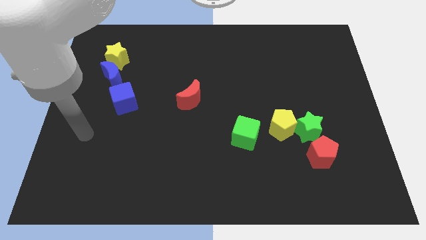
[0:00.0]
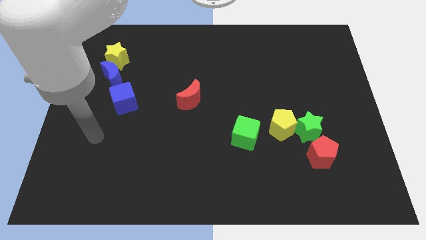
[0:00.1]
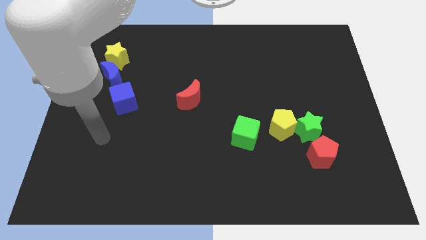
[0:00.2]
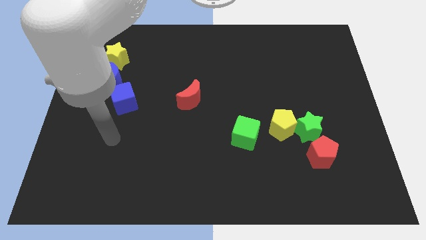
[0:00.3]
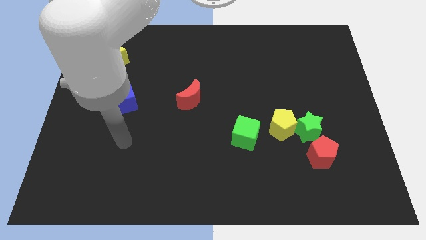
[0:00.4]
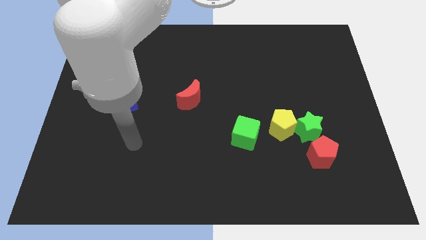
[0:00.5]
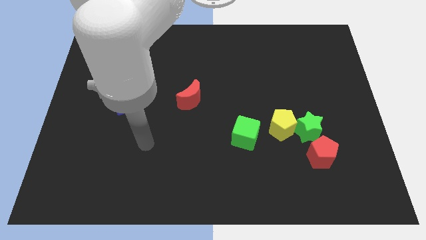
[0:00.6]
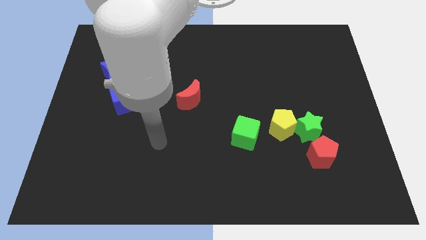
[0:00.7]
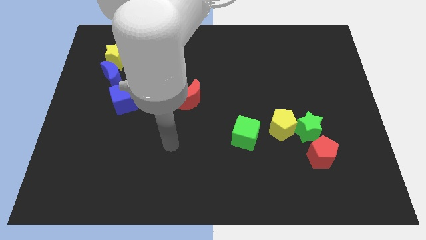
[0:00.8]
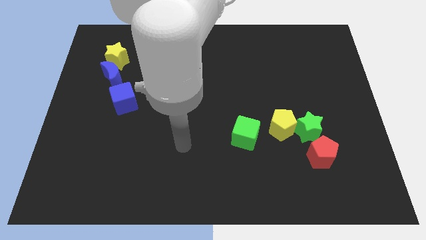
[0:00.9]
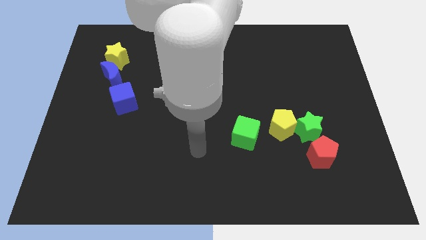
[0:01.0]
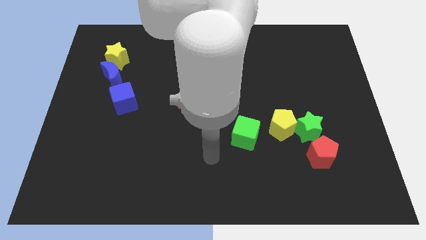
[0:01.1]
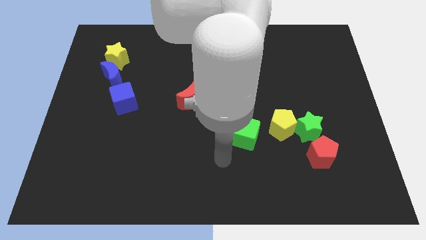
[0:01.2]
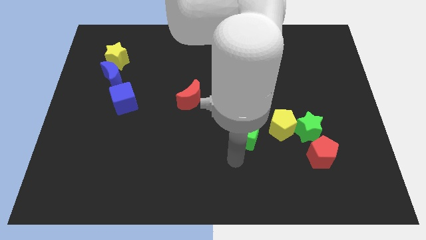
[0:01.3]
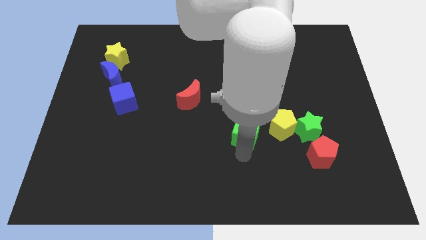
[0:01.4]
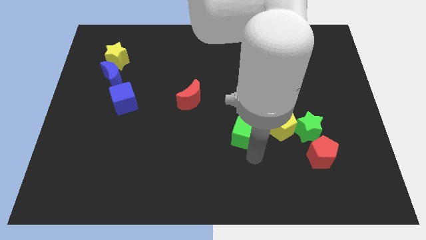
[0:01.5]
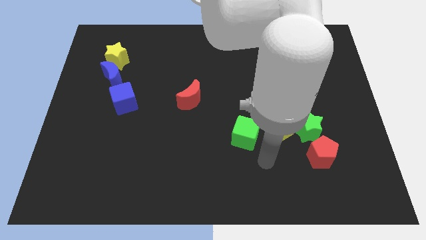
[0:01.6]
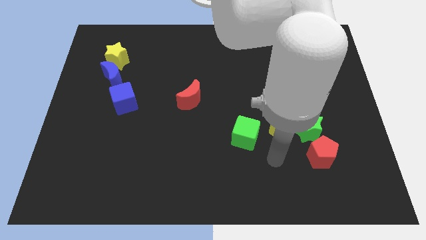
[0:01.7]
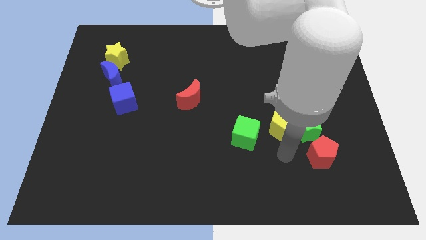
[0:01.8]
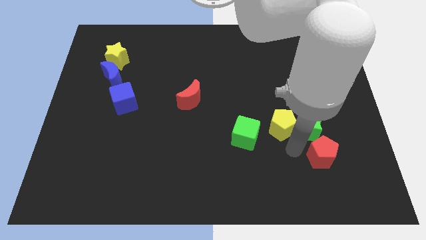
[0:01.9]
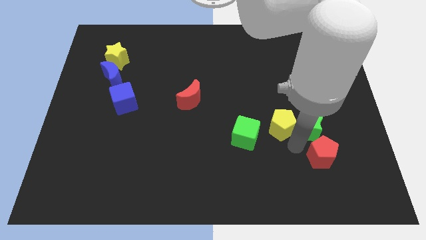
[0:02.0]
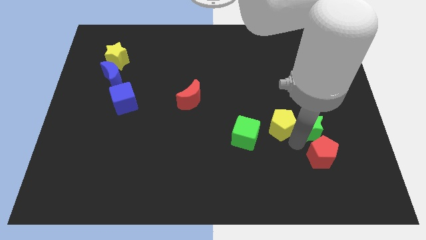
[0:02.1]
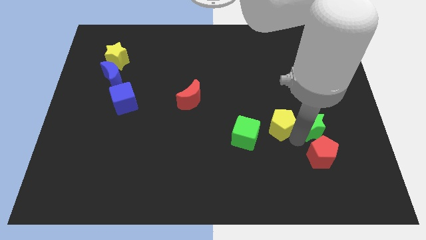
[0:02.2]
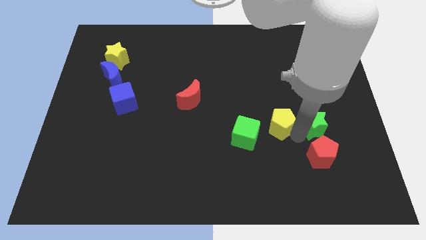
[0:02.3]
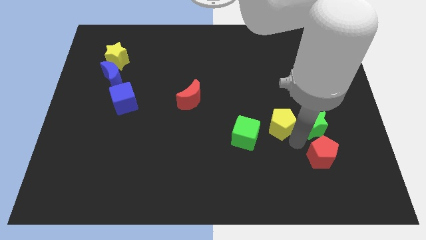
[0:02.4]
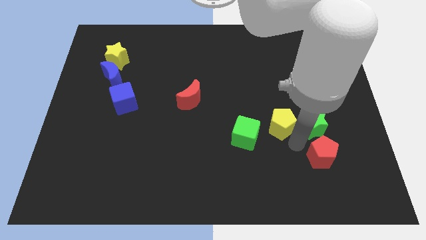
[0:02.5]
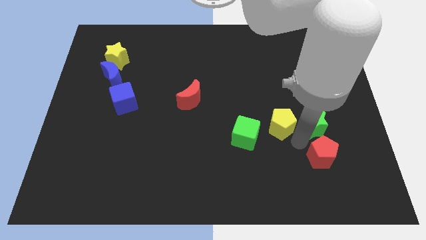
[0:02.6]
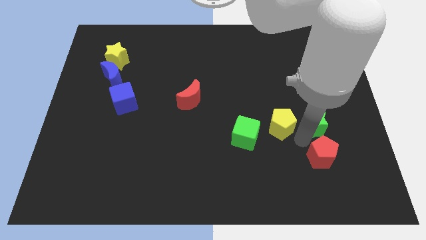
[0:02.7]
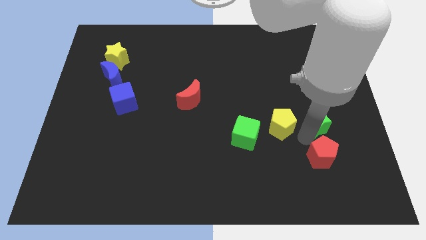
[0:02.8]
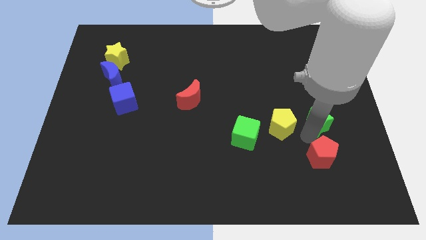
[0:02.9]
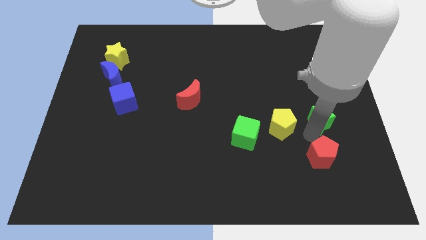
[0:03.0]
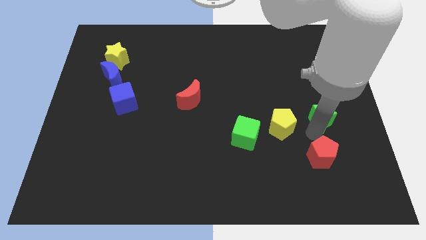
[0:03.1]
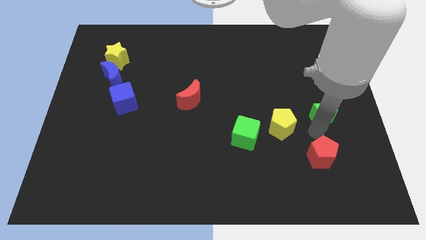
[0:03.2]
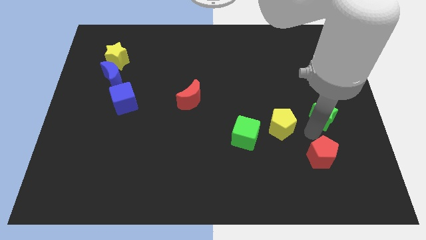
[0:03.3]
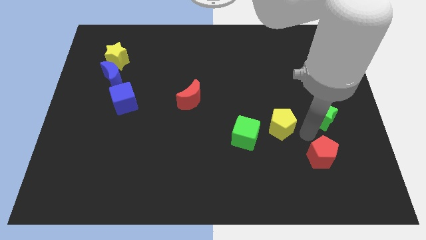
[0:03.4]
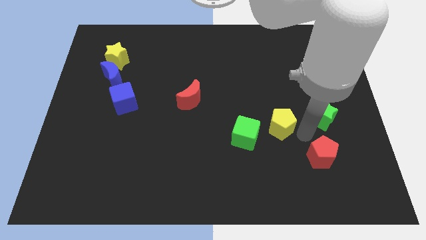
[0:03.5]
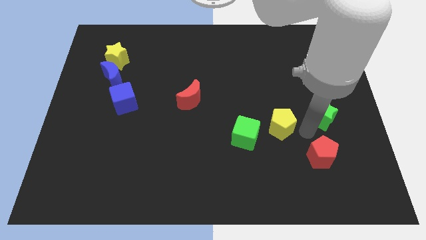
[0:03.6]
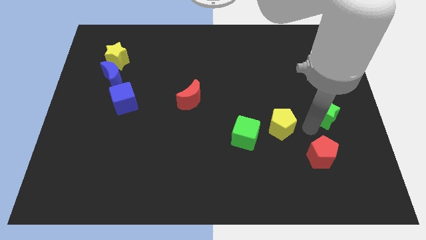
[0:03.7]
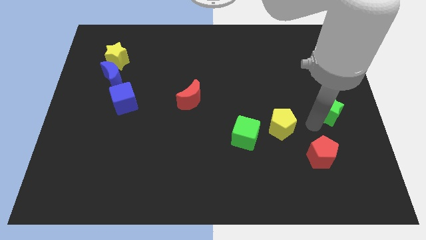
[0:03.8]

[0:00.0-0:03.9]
move the green star away from the yellow pentagon and red pentagon

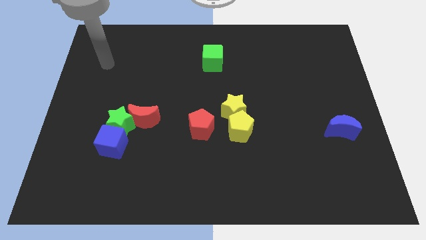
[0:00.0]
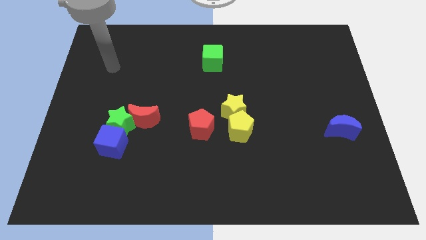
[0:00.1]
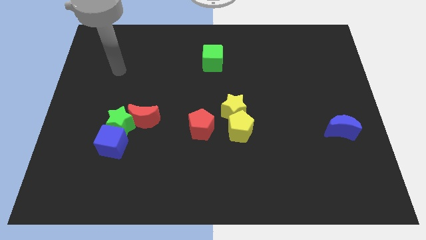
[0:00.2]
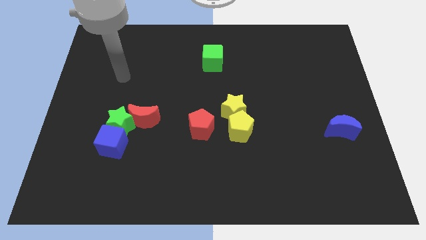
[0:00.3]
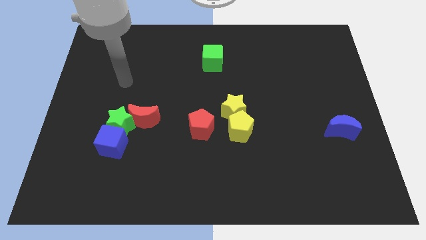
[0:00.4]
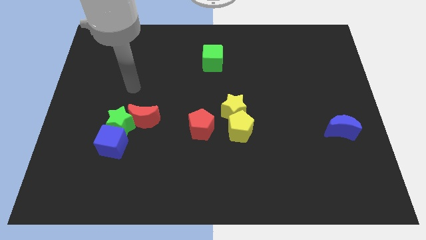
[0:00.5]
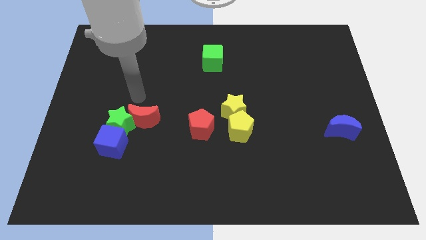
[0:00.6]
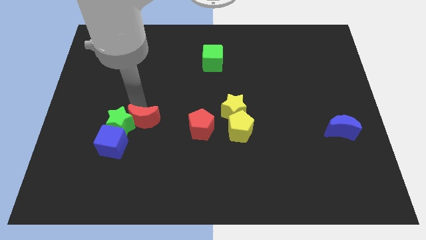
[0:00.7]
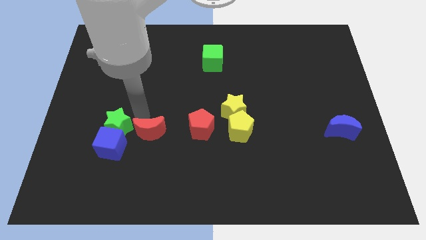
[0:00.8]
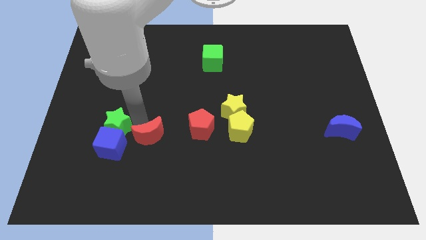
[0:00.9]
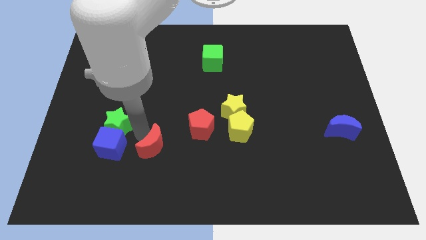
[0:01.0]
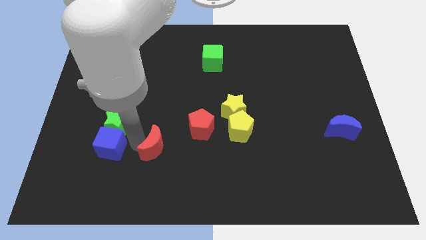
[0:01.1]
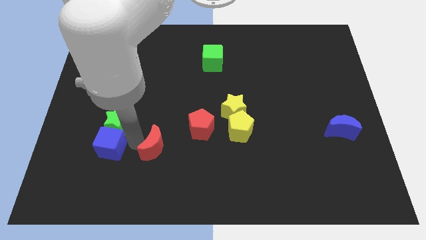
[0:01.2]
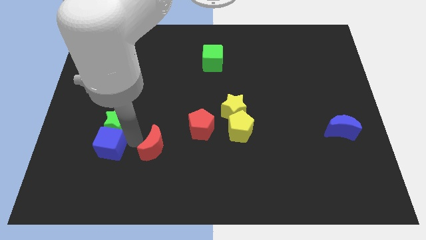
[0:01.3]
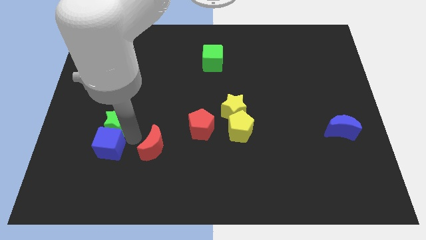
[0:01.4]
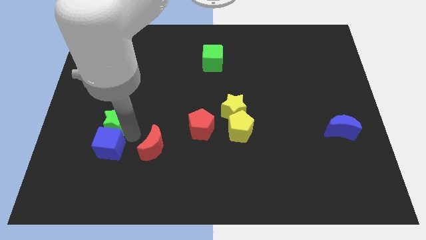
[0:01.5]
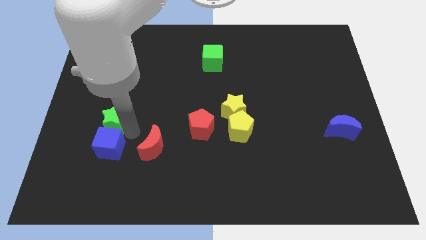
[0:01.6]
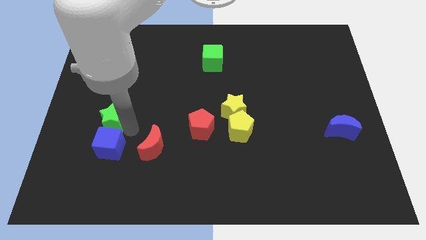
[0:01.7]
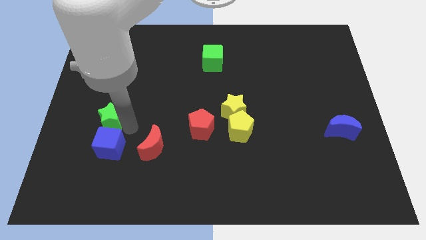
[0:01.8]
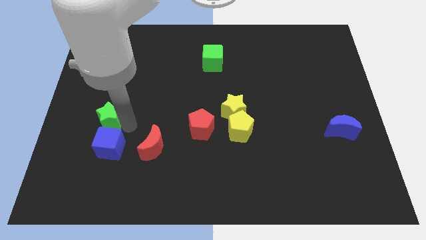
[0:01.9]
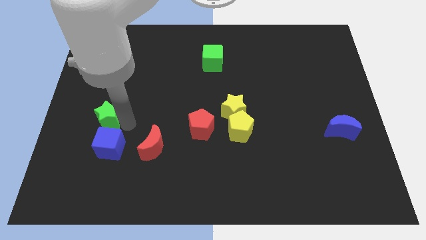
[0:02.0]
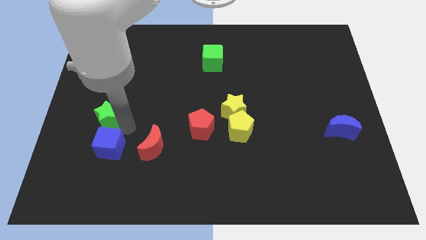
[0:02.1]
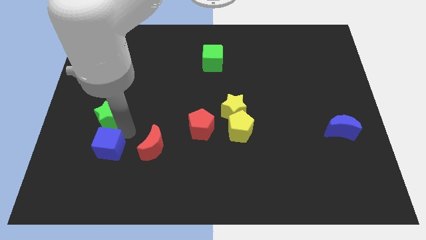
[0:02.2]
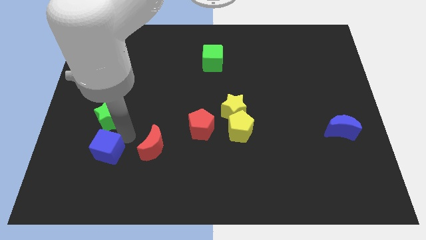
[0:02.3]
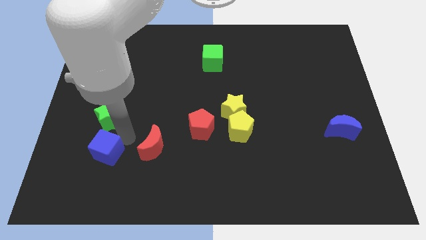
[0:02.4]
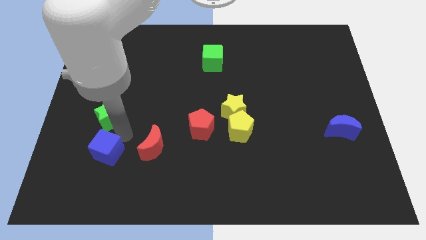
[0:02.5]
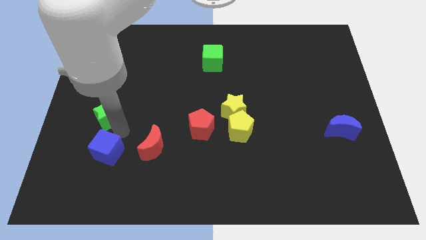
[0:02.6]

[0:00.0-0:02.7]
pull the green star apart from the blue cube and red moon

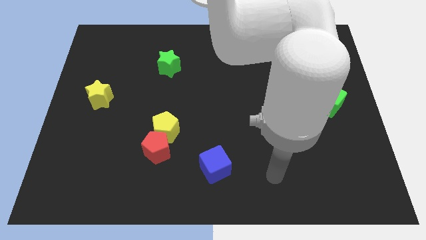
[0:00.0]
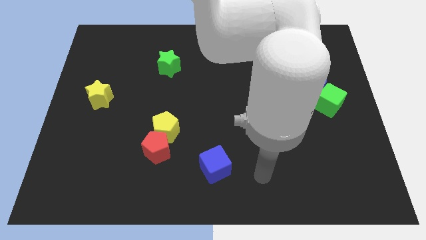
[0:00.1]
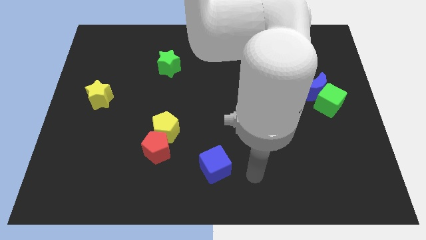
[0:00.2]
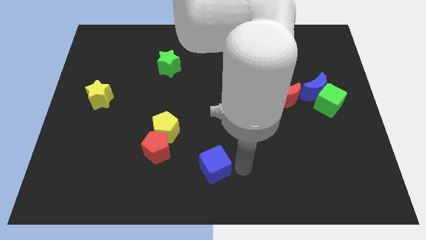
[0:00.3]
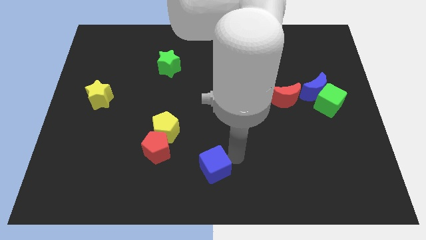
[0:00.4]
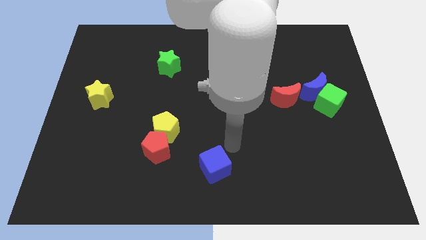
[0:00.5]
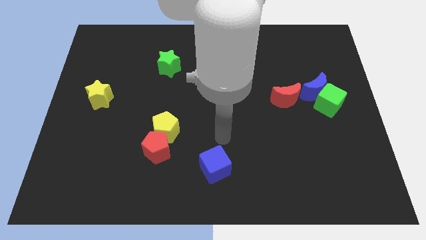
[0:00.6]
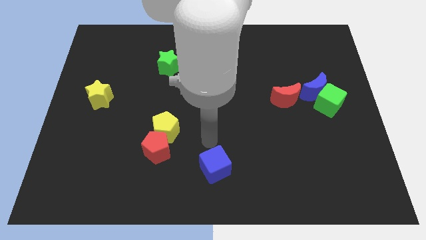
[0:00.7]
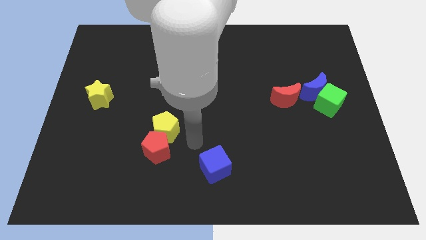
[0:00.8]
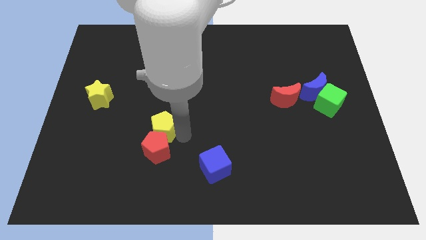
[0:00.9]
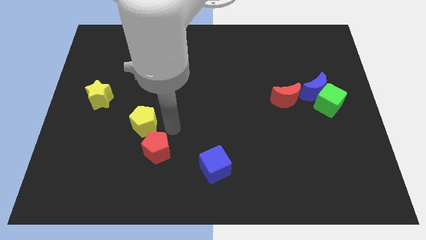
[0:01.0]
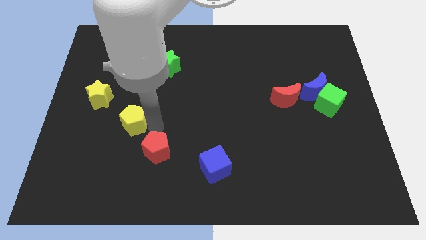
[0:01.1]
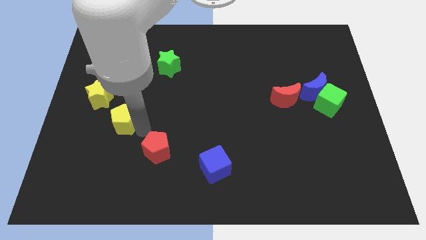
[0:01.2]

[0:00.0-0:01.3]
separate the red pentagon from the yellow pentagon

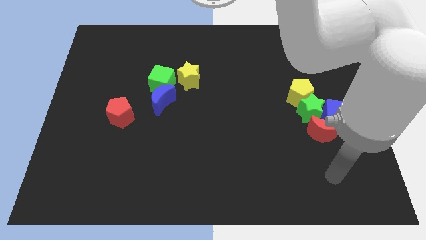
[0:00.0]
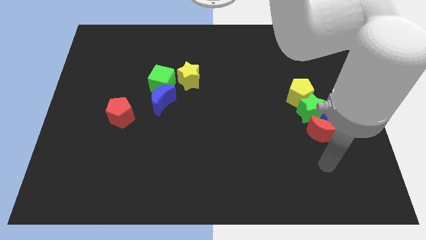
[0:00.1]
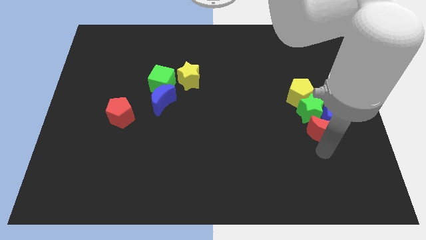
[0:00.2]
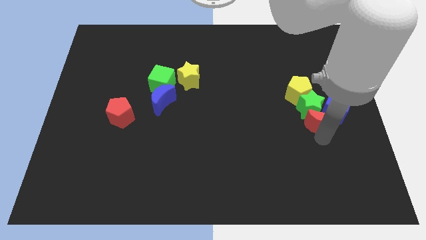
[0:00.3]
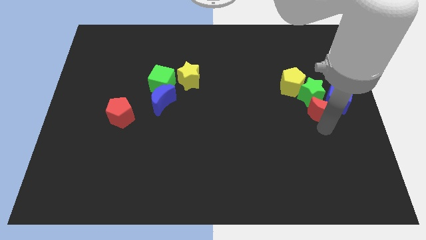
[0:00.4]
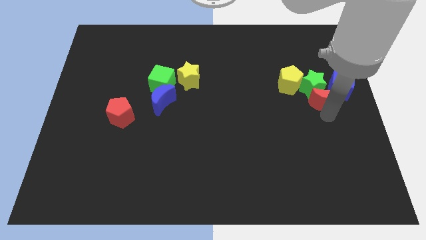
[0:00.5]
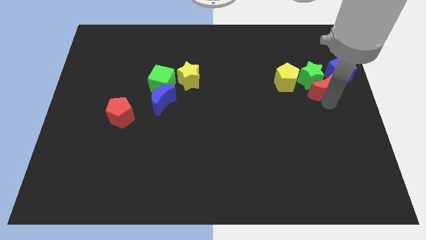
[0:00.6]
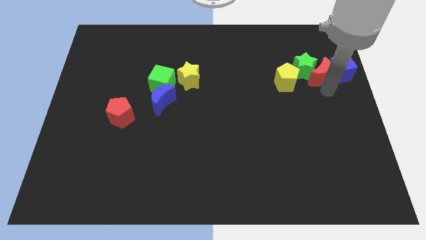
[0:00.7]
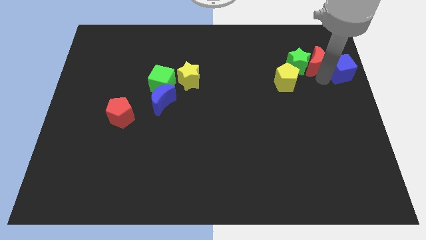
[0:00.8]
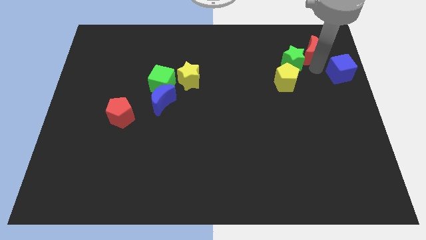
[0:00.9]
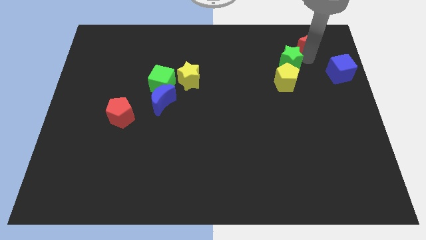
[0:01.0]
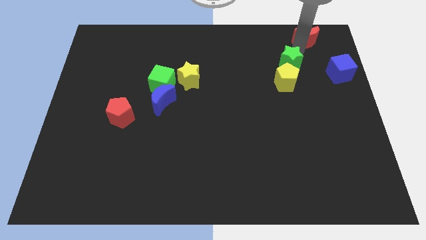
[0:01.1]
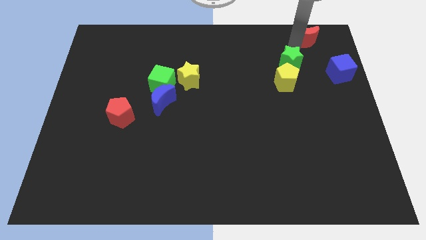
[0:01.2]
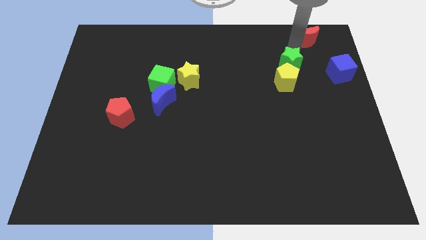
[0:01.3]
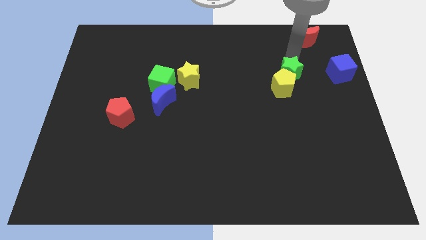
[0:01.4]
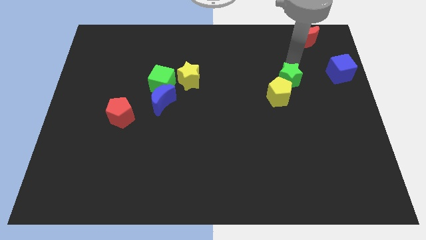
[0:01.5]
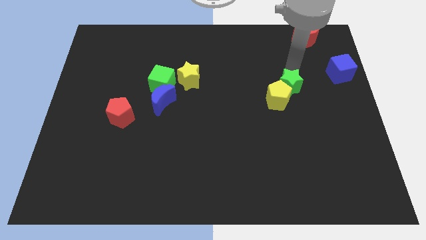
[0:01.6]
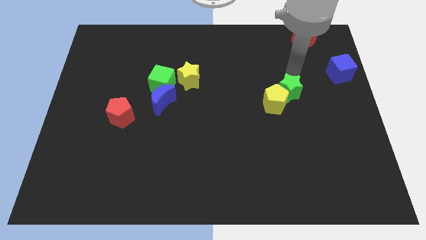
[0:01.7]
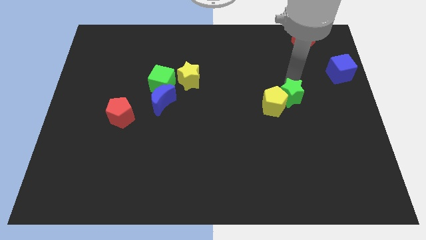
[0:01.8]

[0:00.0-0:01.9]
pull the green star apart from the yellow pentagon, blue cube, and red moon
